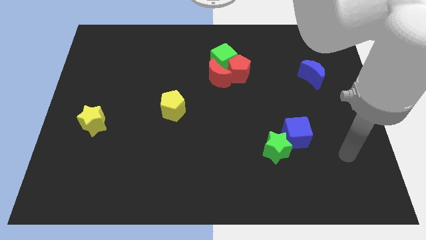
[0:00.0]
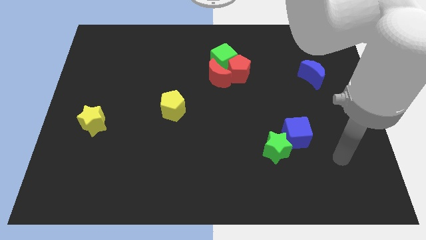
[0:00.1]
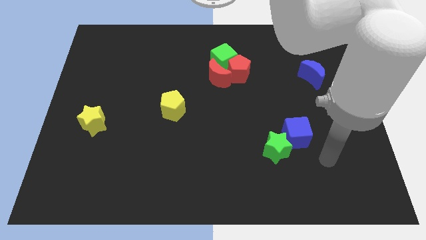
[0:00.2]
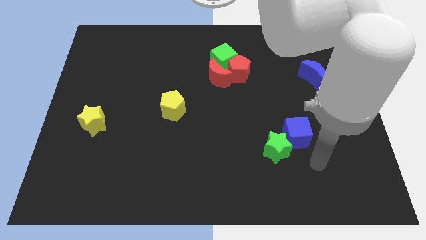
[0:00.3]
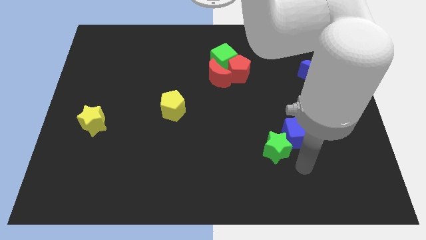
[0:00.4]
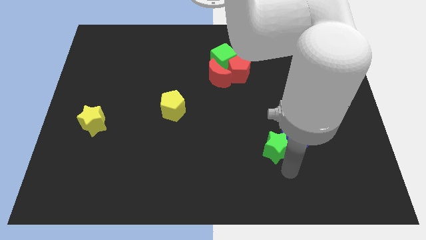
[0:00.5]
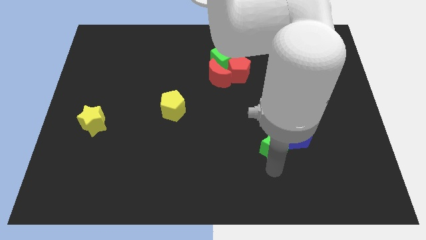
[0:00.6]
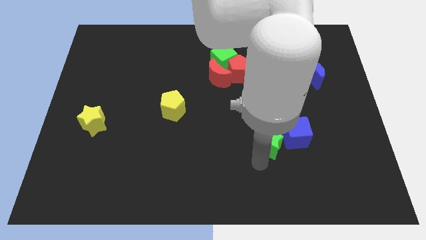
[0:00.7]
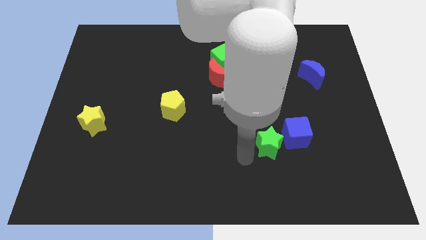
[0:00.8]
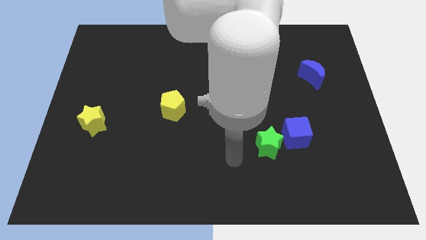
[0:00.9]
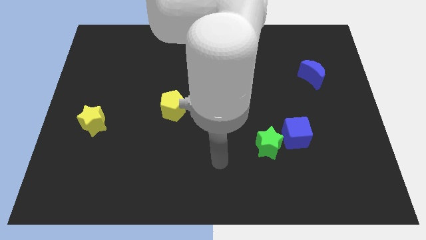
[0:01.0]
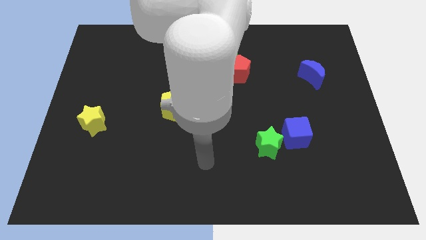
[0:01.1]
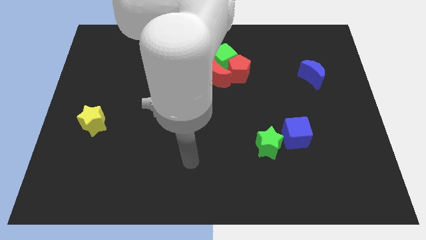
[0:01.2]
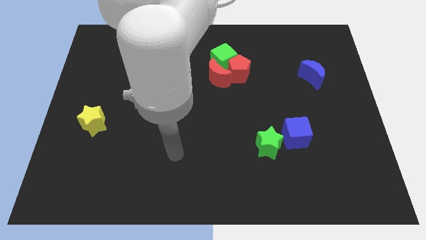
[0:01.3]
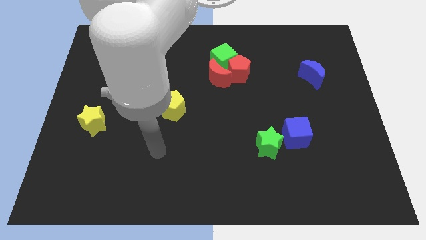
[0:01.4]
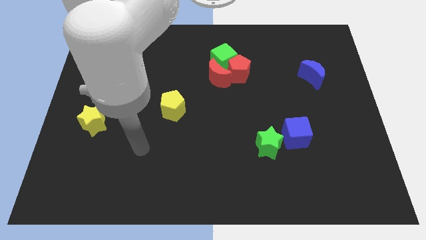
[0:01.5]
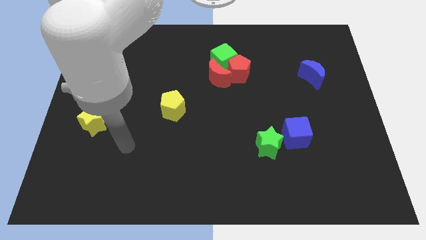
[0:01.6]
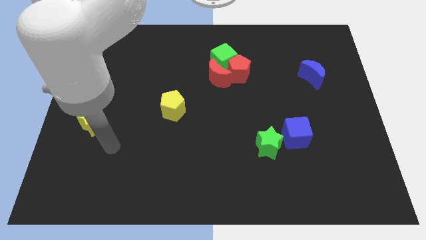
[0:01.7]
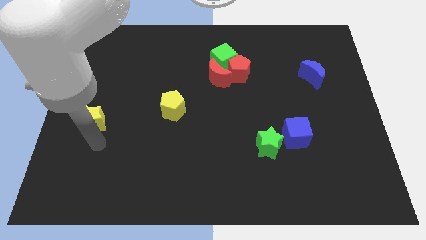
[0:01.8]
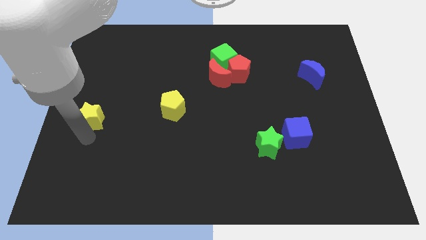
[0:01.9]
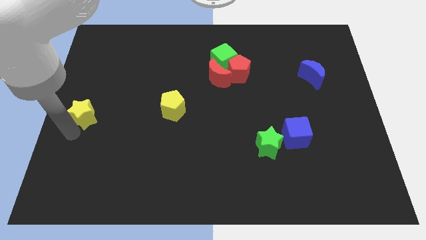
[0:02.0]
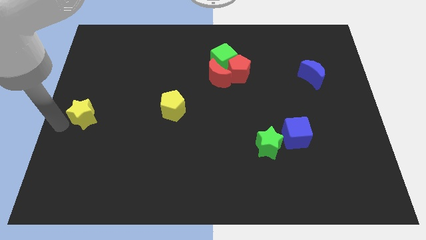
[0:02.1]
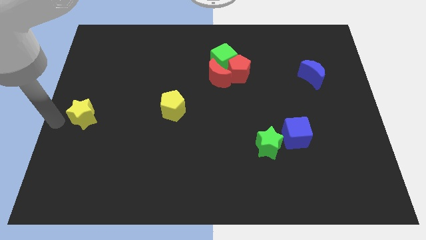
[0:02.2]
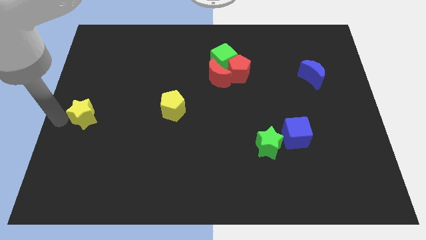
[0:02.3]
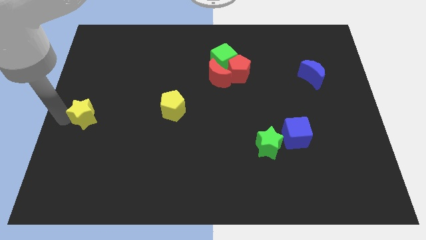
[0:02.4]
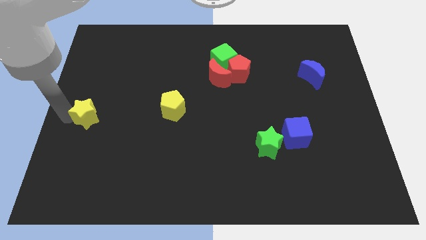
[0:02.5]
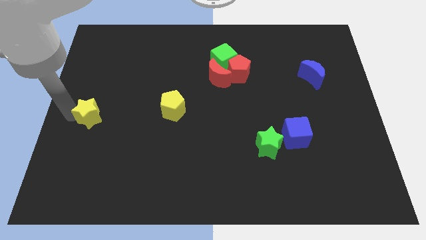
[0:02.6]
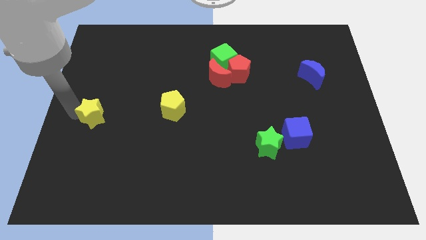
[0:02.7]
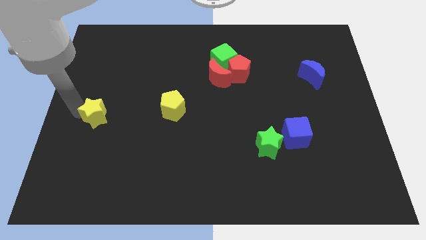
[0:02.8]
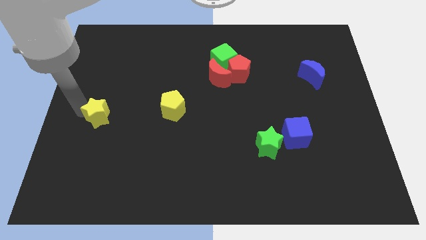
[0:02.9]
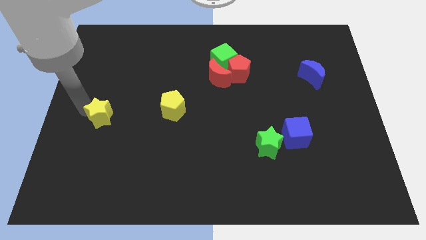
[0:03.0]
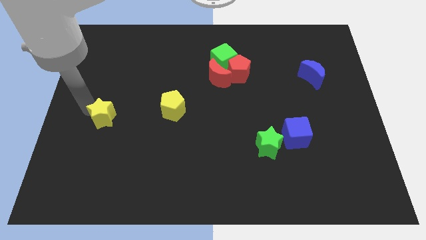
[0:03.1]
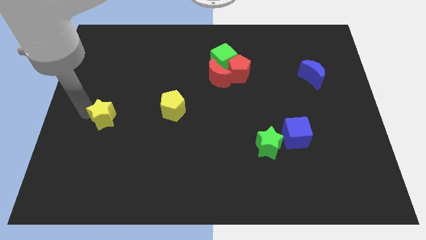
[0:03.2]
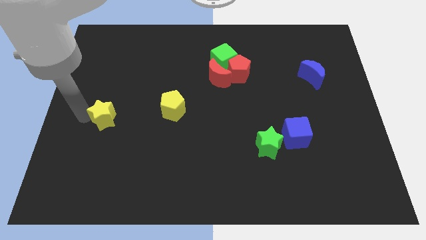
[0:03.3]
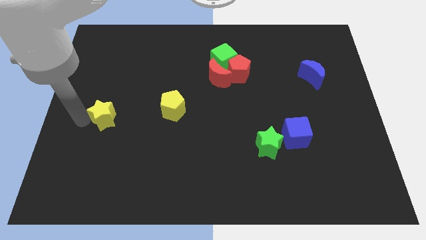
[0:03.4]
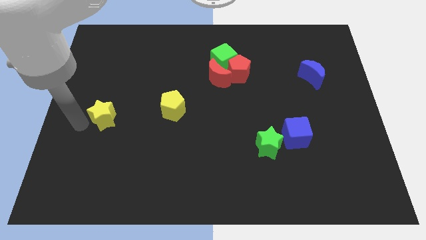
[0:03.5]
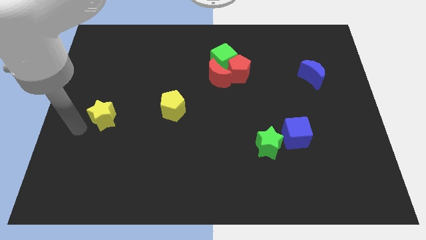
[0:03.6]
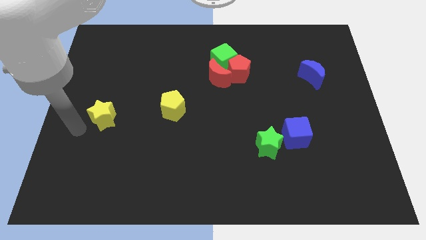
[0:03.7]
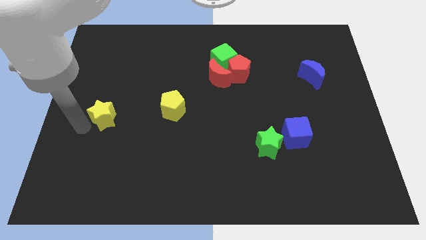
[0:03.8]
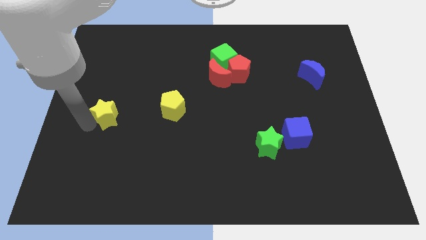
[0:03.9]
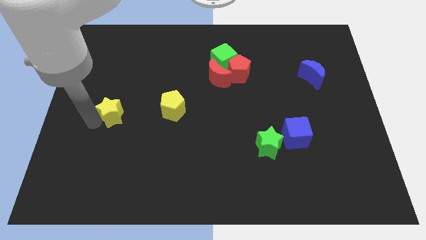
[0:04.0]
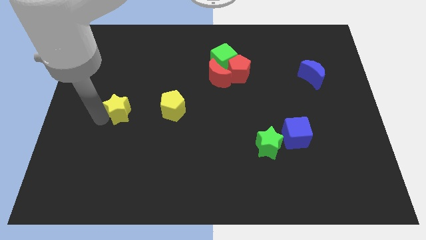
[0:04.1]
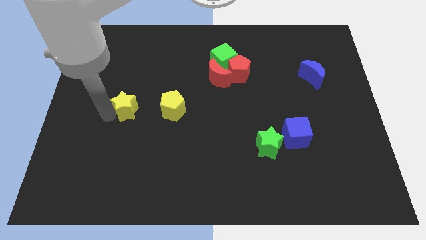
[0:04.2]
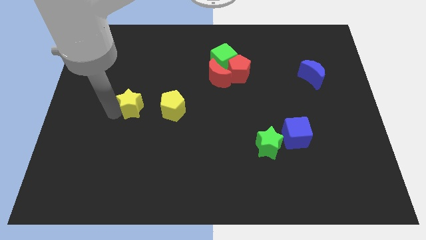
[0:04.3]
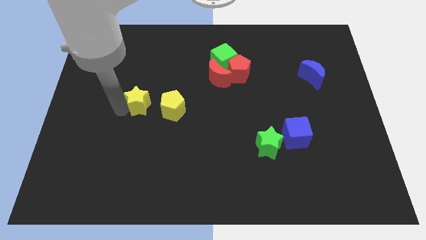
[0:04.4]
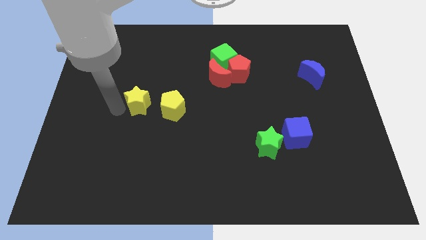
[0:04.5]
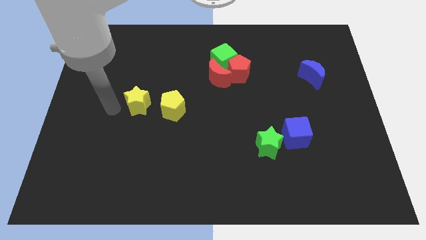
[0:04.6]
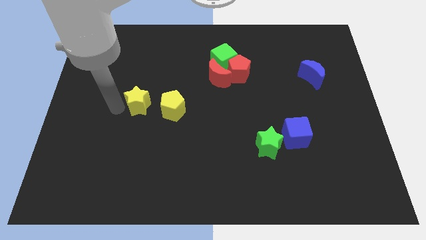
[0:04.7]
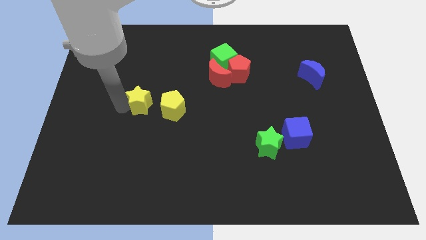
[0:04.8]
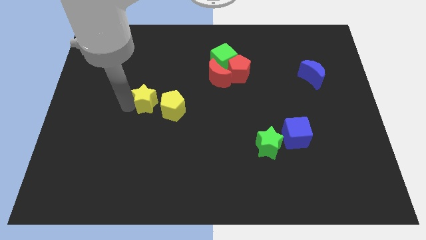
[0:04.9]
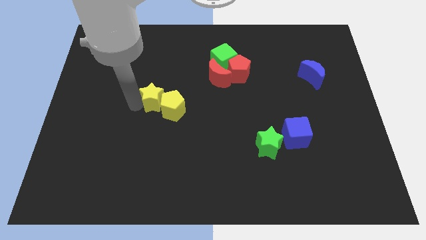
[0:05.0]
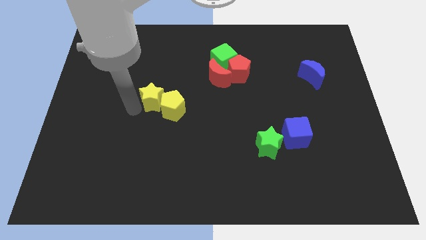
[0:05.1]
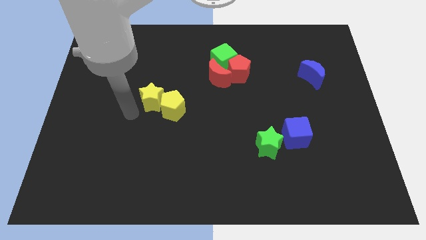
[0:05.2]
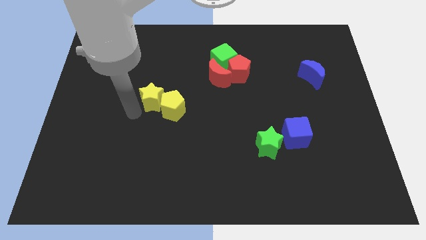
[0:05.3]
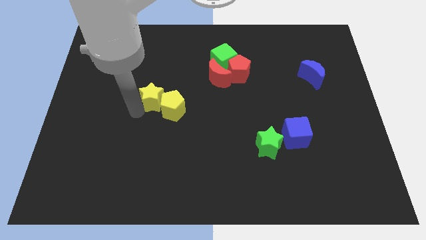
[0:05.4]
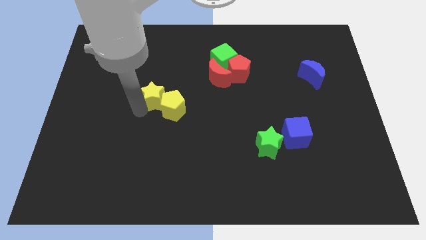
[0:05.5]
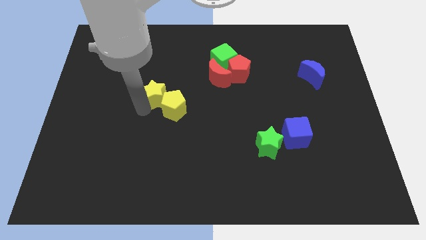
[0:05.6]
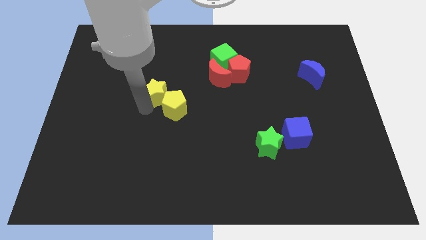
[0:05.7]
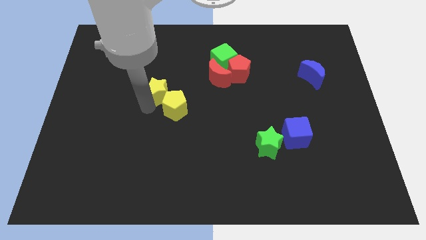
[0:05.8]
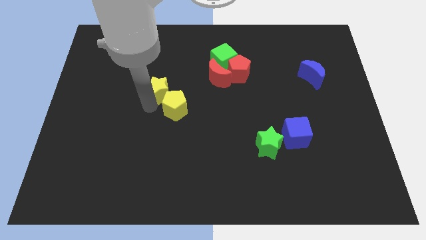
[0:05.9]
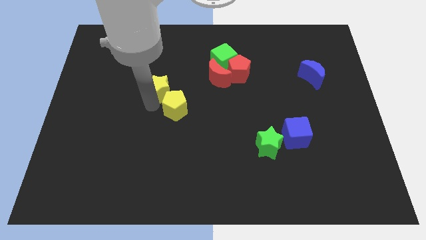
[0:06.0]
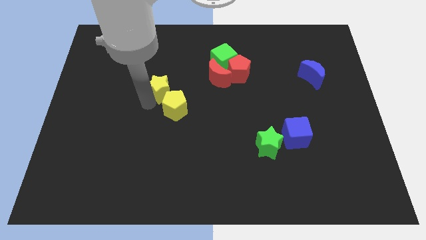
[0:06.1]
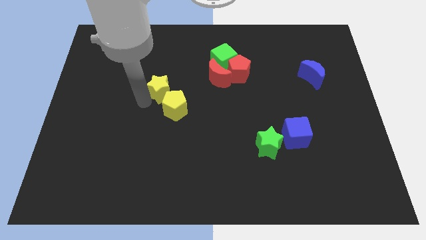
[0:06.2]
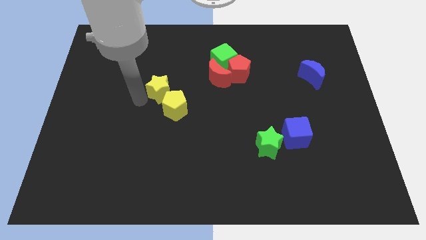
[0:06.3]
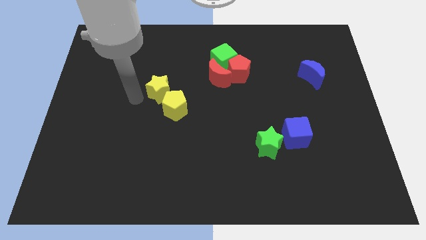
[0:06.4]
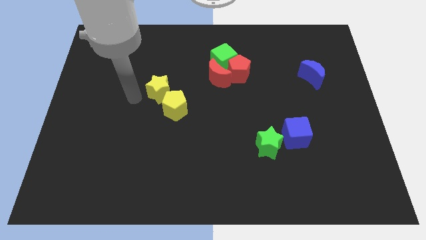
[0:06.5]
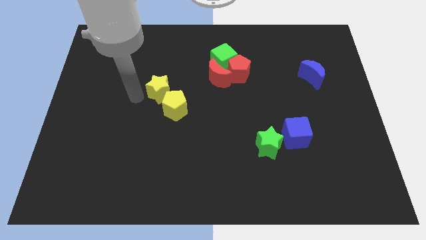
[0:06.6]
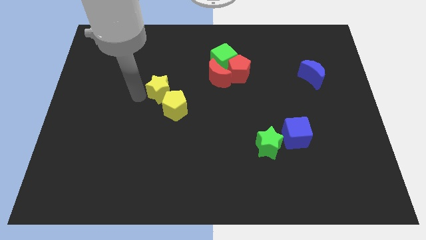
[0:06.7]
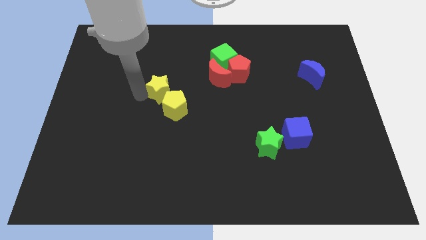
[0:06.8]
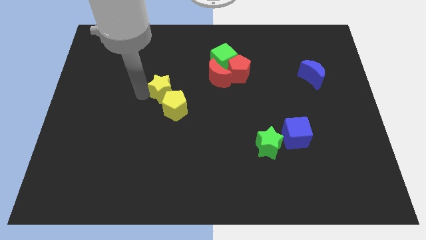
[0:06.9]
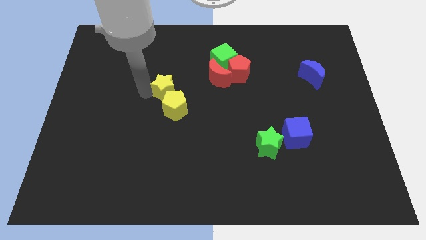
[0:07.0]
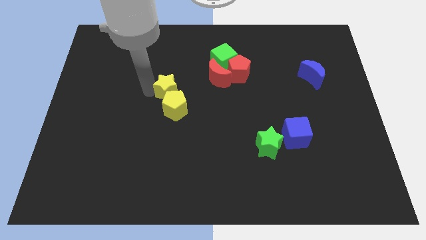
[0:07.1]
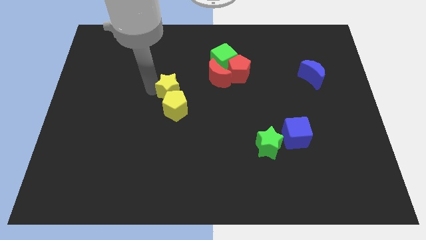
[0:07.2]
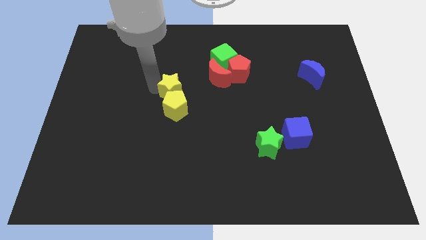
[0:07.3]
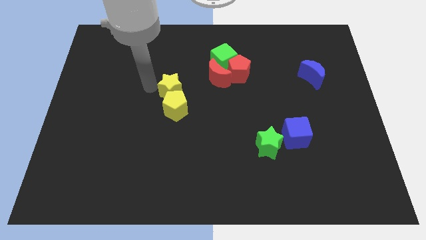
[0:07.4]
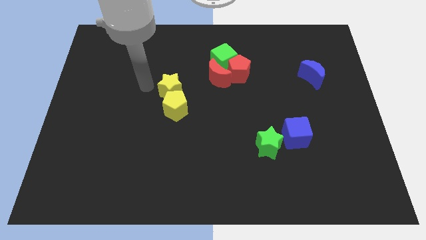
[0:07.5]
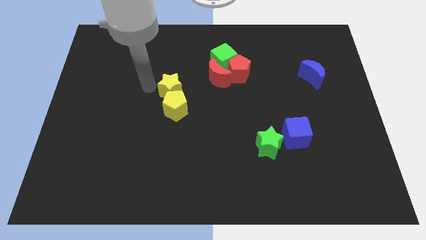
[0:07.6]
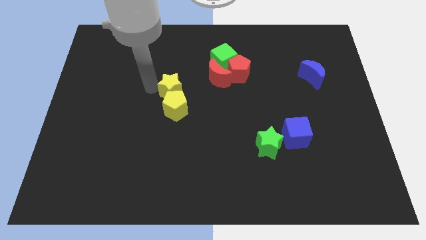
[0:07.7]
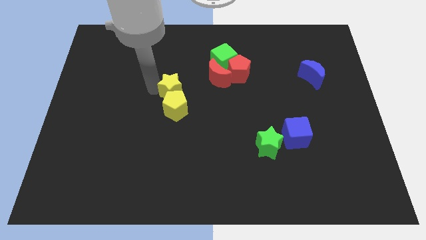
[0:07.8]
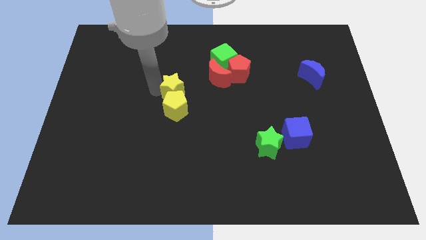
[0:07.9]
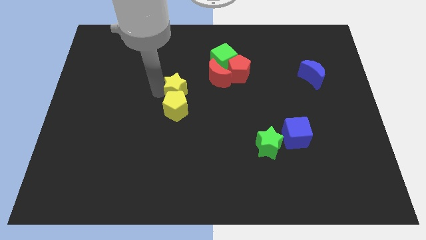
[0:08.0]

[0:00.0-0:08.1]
push the yellow star to the bottom left side of the red moon
